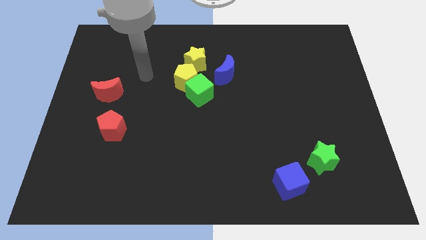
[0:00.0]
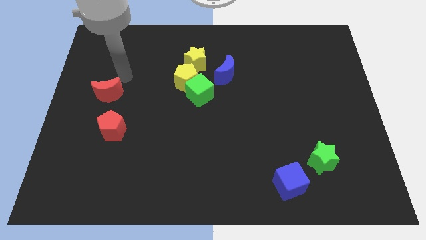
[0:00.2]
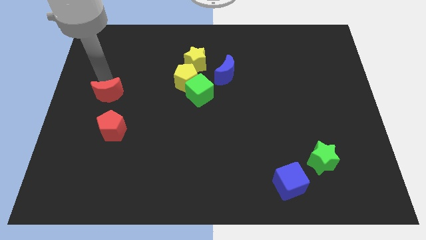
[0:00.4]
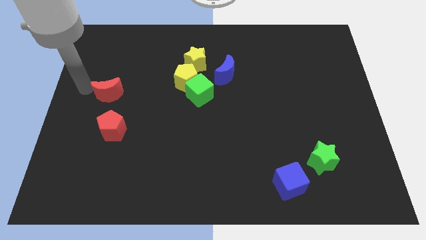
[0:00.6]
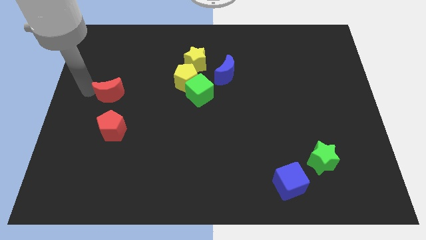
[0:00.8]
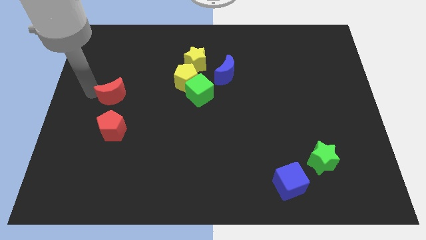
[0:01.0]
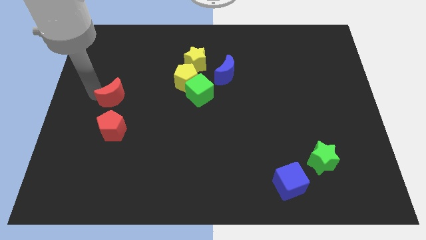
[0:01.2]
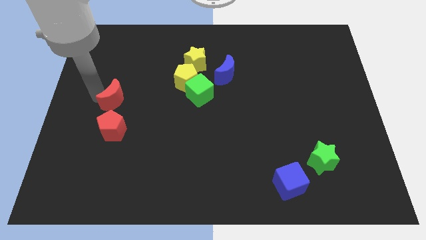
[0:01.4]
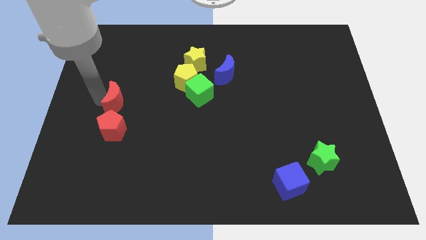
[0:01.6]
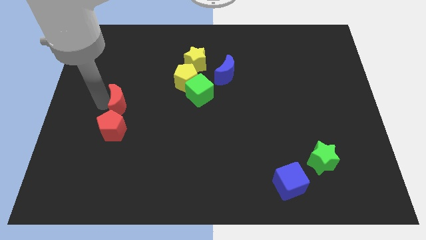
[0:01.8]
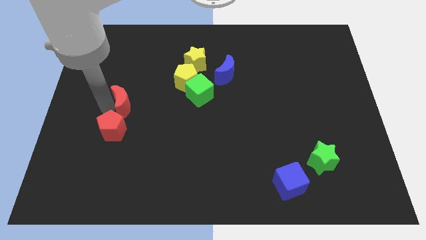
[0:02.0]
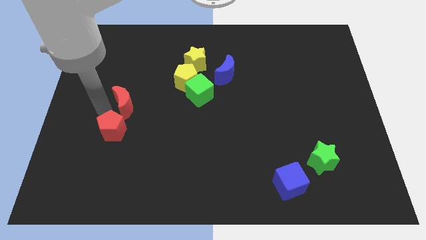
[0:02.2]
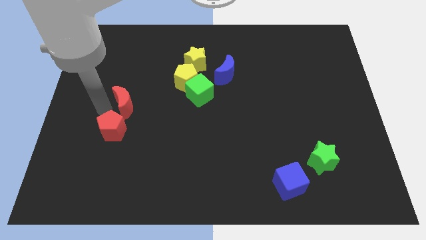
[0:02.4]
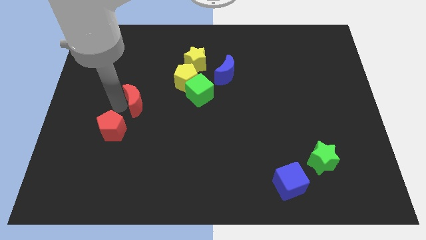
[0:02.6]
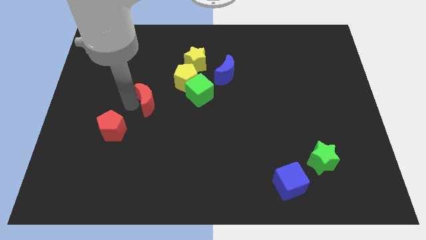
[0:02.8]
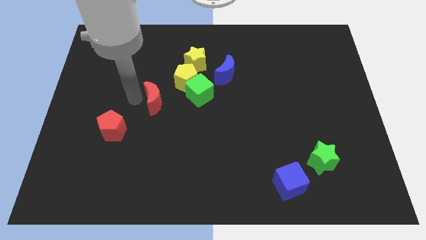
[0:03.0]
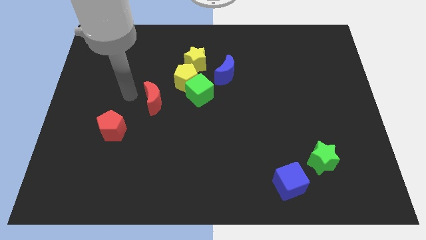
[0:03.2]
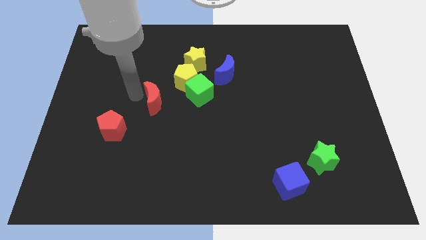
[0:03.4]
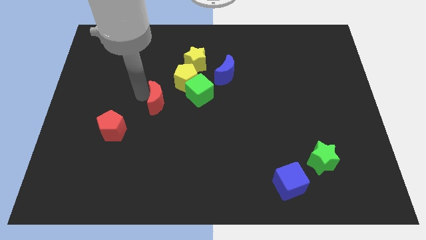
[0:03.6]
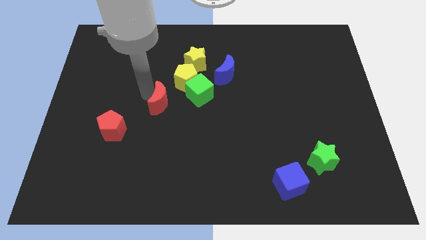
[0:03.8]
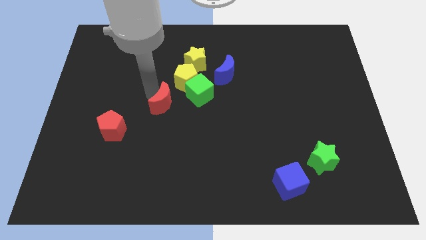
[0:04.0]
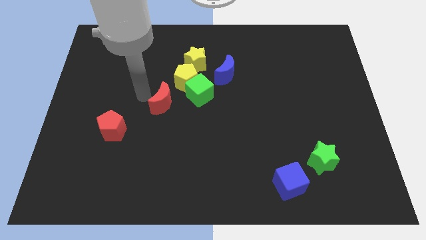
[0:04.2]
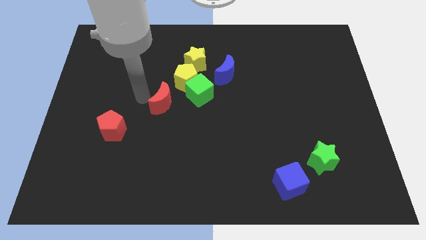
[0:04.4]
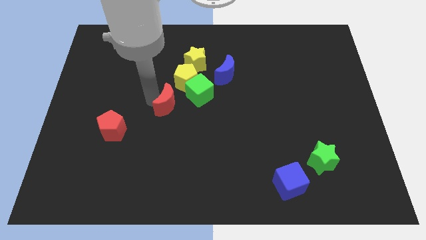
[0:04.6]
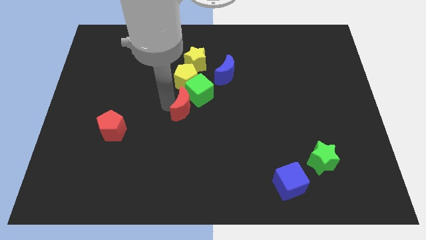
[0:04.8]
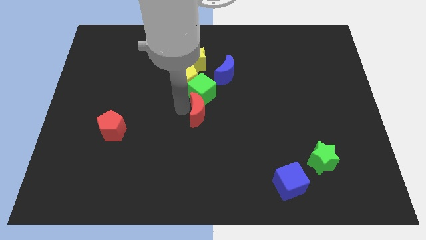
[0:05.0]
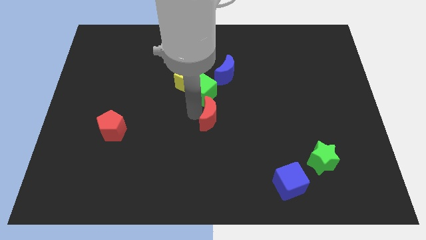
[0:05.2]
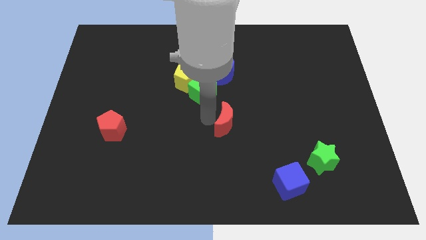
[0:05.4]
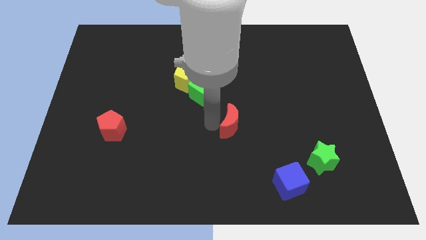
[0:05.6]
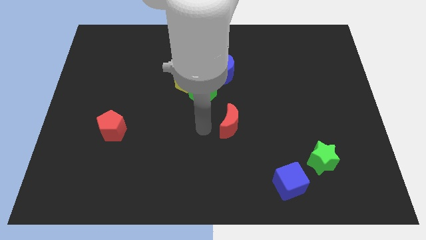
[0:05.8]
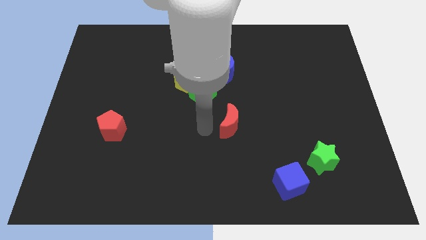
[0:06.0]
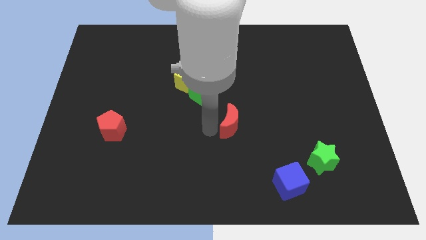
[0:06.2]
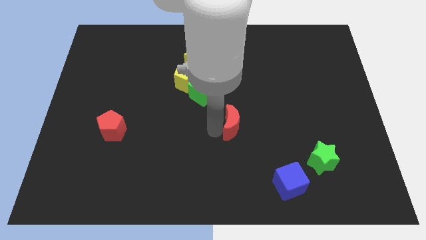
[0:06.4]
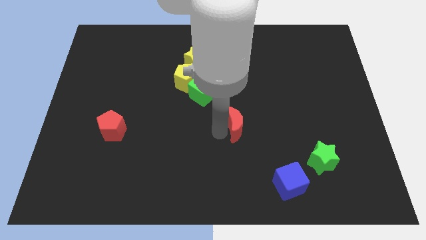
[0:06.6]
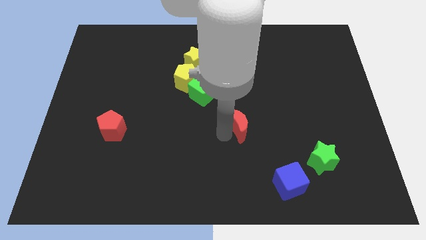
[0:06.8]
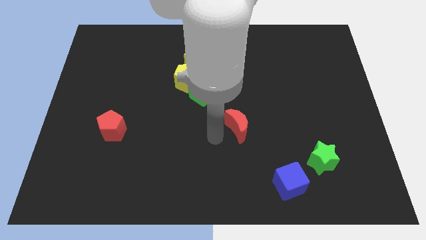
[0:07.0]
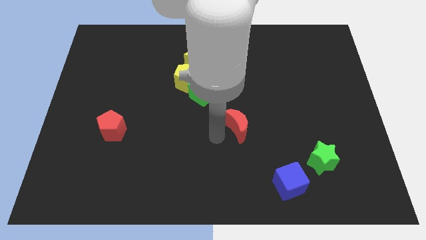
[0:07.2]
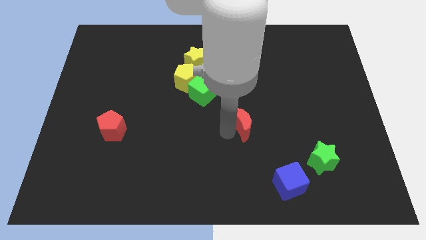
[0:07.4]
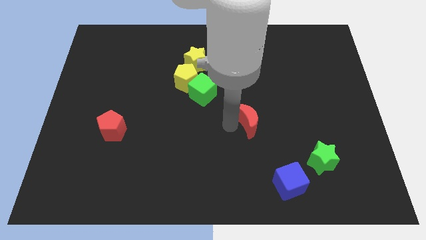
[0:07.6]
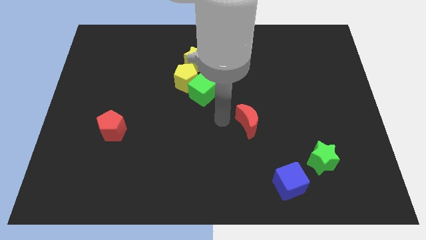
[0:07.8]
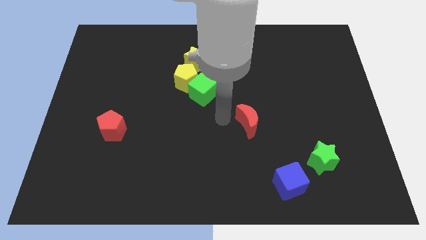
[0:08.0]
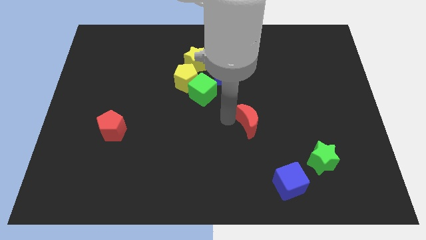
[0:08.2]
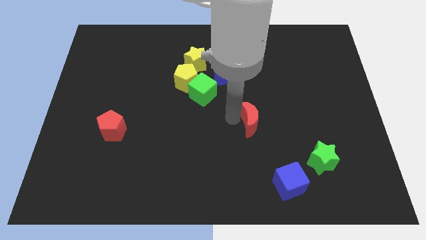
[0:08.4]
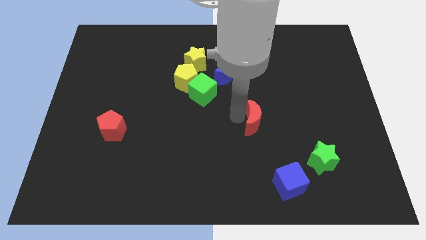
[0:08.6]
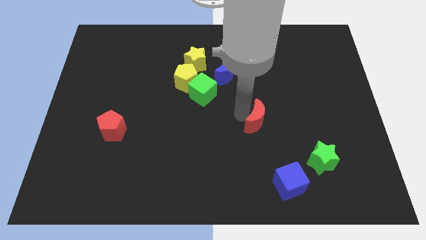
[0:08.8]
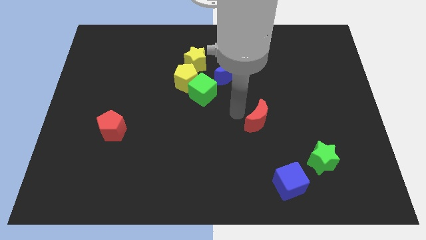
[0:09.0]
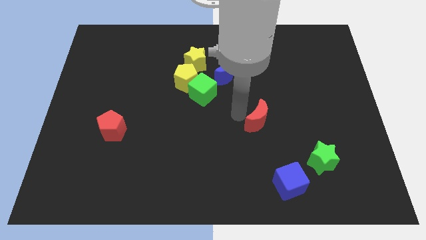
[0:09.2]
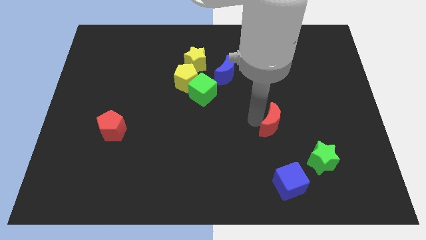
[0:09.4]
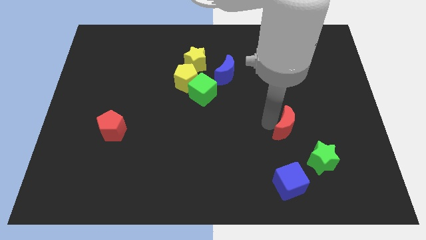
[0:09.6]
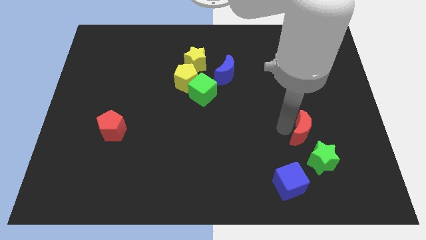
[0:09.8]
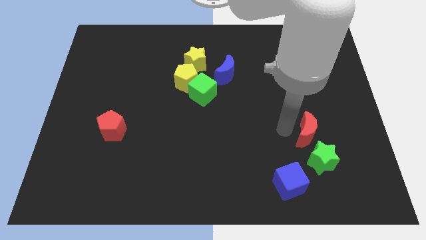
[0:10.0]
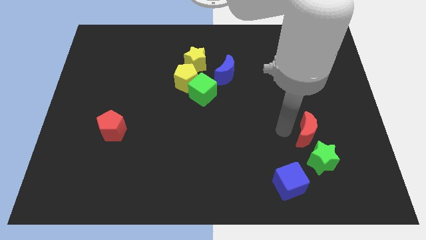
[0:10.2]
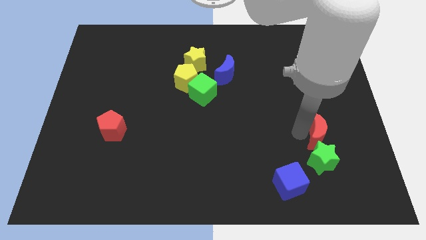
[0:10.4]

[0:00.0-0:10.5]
slide the red moon to the top right of the green star

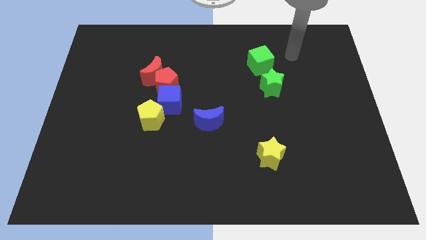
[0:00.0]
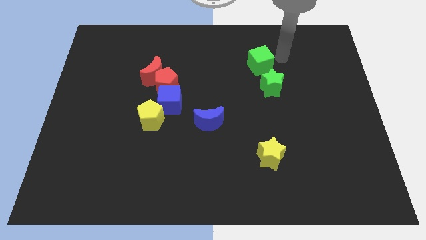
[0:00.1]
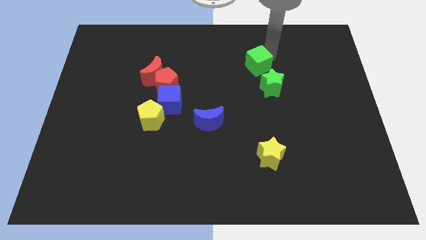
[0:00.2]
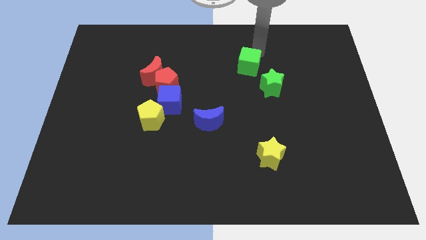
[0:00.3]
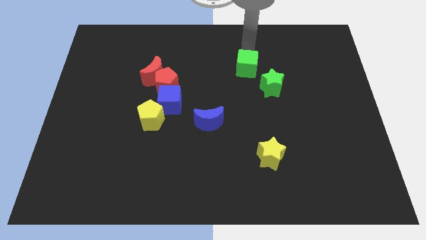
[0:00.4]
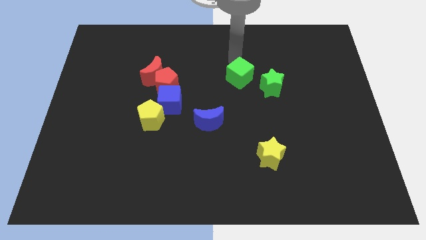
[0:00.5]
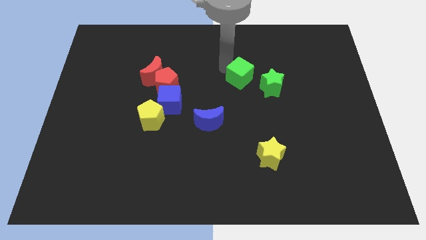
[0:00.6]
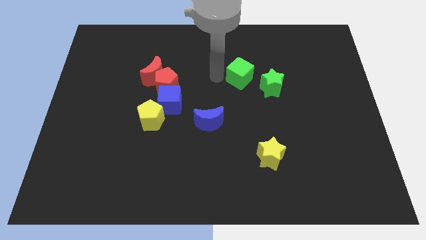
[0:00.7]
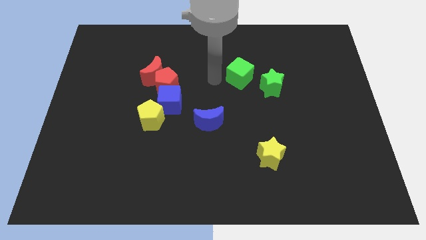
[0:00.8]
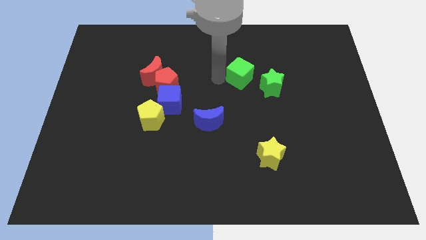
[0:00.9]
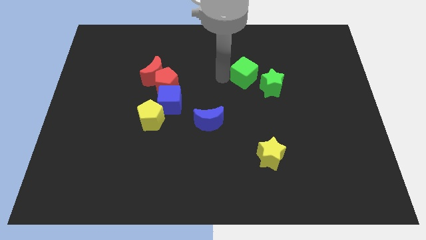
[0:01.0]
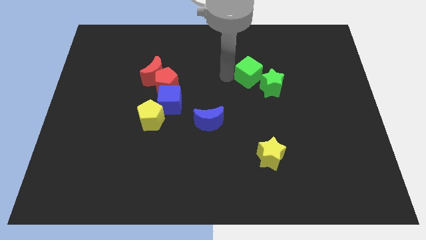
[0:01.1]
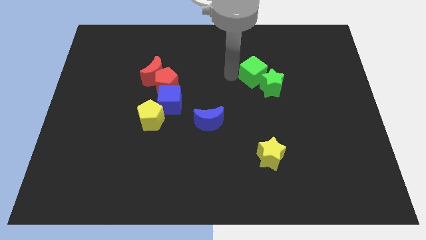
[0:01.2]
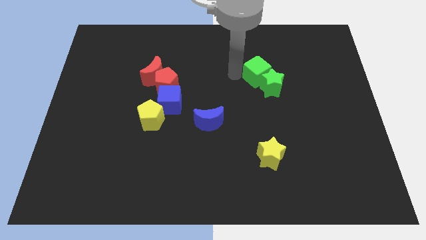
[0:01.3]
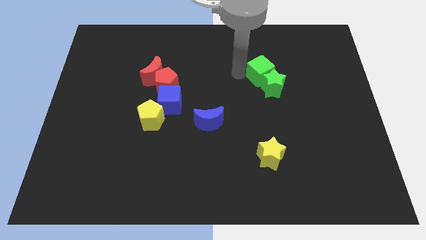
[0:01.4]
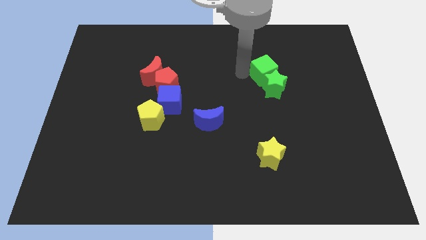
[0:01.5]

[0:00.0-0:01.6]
push the green cube to the top right of the green star
